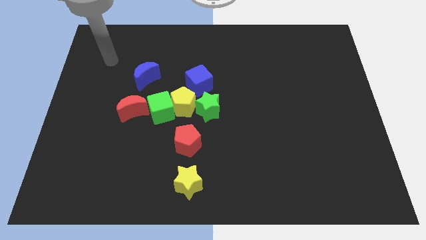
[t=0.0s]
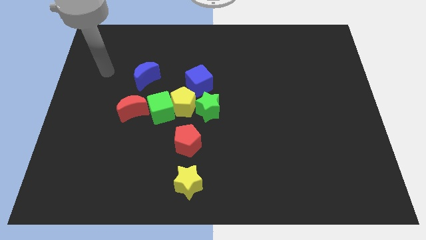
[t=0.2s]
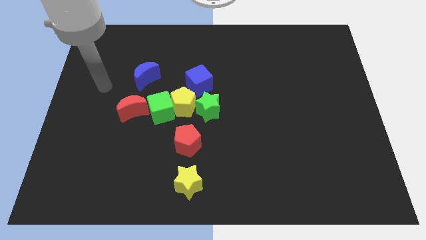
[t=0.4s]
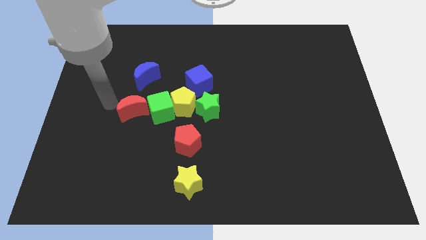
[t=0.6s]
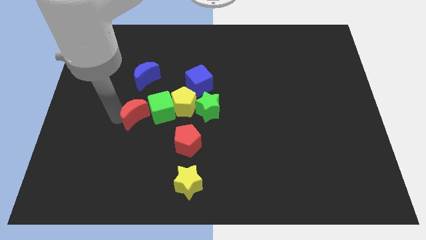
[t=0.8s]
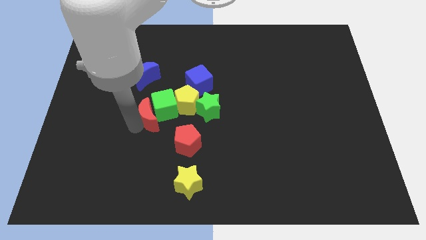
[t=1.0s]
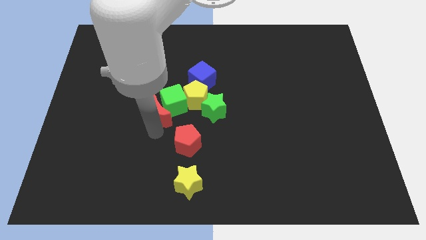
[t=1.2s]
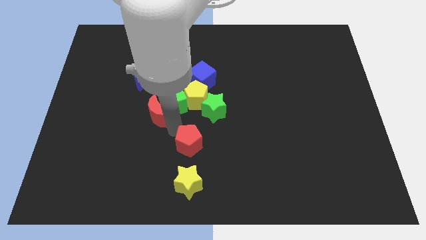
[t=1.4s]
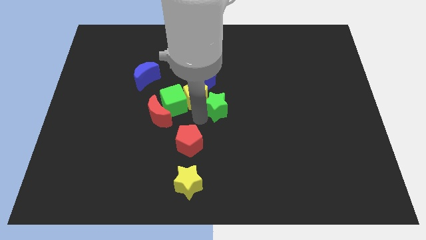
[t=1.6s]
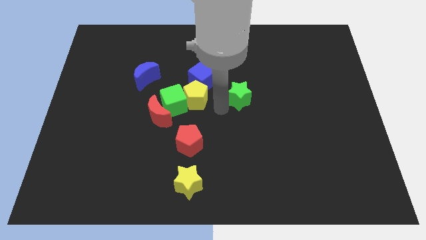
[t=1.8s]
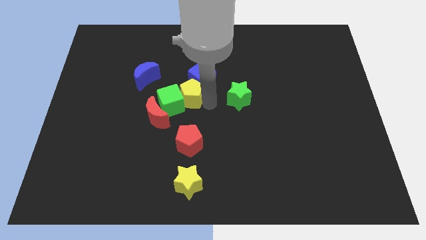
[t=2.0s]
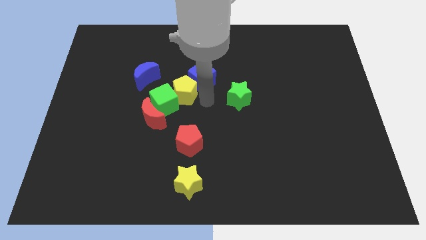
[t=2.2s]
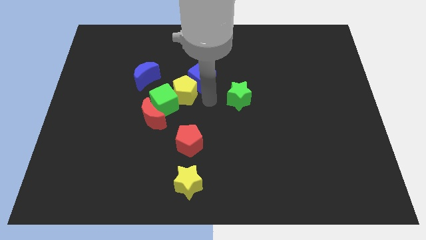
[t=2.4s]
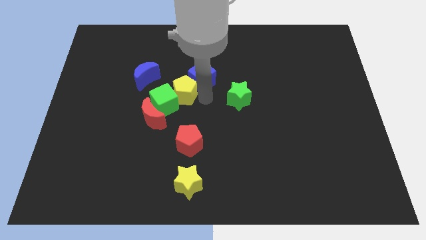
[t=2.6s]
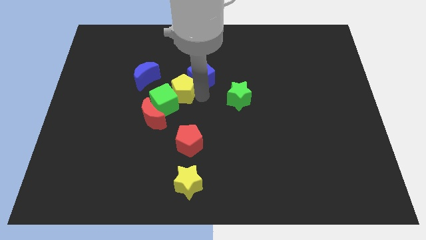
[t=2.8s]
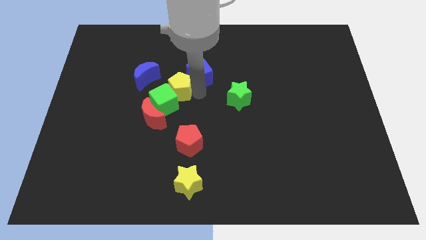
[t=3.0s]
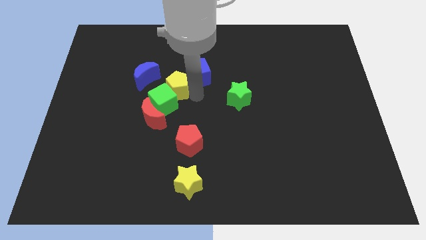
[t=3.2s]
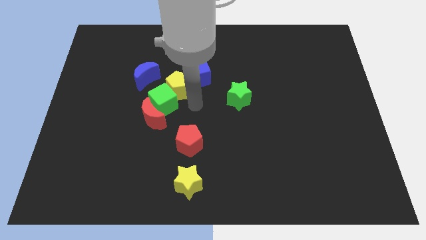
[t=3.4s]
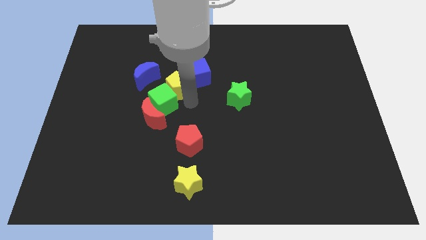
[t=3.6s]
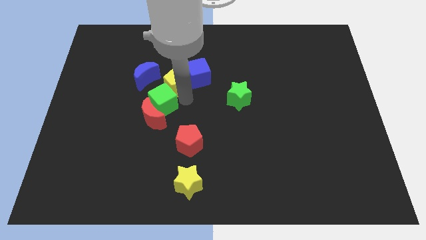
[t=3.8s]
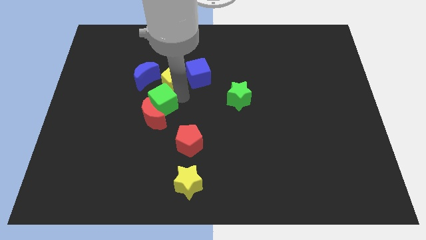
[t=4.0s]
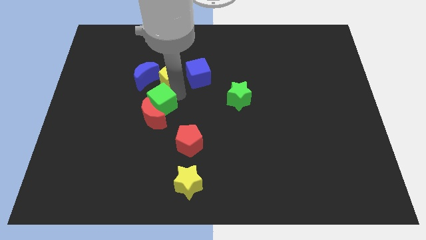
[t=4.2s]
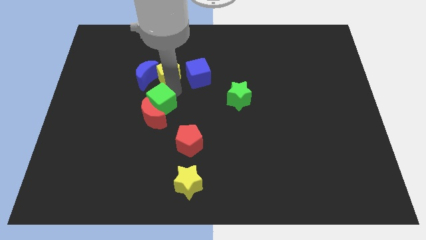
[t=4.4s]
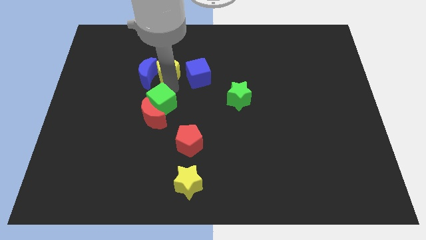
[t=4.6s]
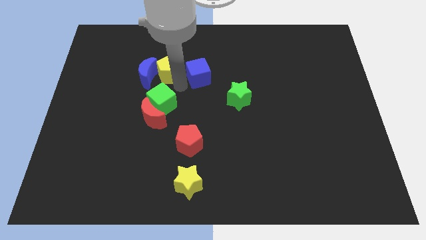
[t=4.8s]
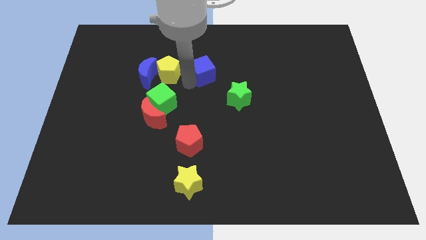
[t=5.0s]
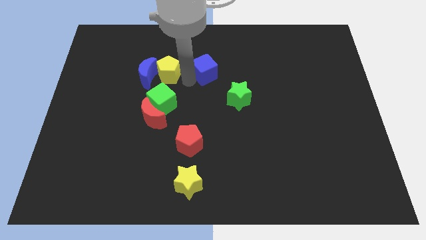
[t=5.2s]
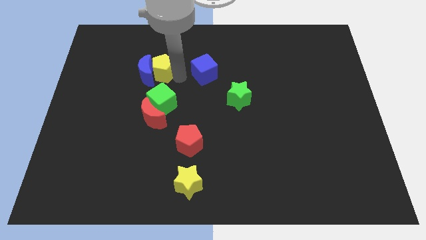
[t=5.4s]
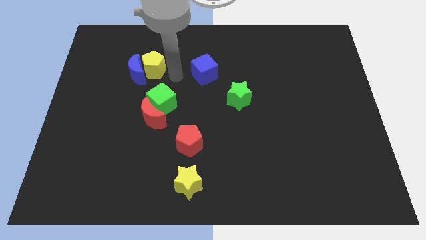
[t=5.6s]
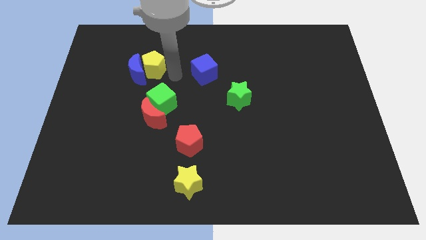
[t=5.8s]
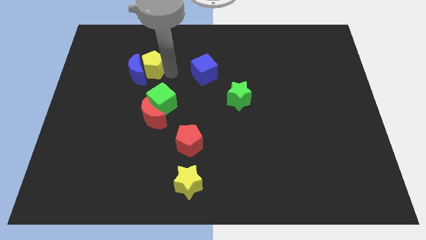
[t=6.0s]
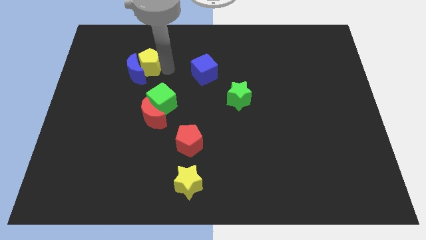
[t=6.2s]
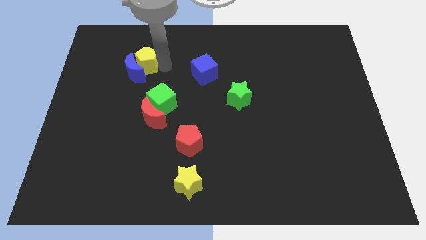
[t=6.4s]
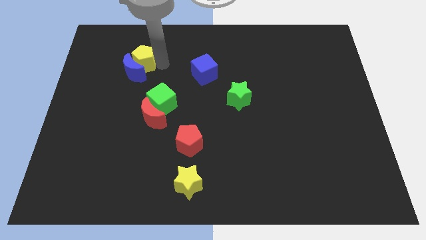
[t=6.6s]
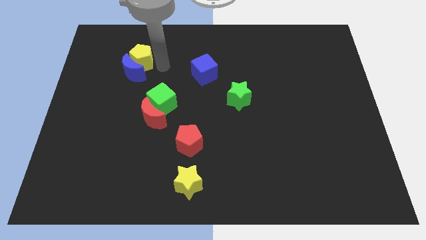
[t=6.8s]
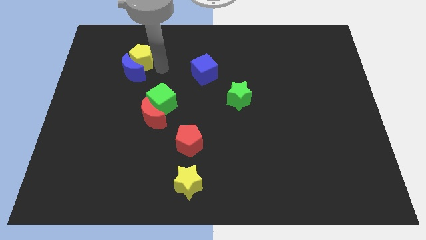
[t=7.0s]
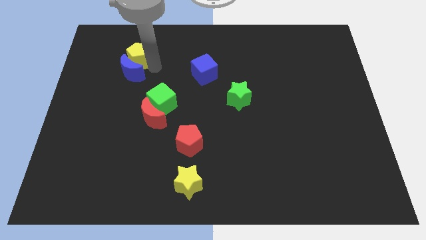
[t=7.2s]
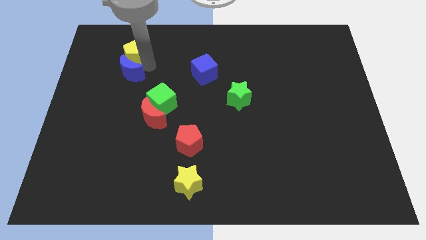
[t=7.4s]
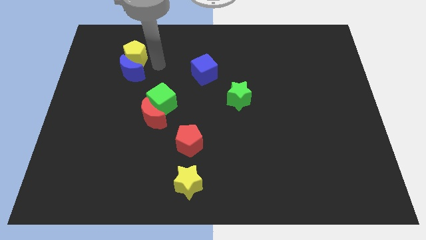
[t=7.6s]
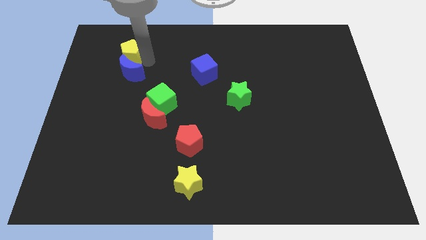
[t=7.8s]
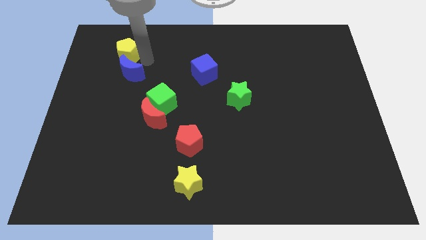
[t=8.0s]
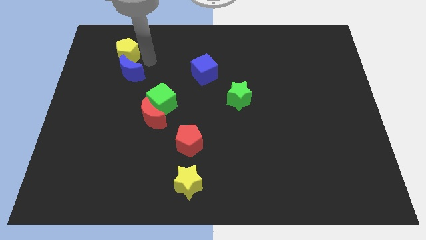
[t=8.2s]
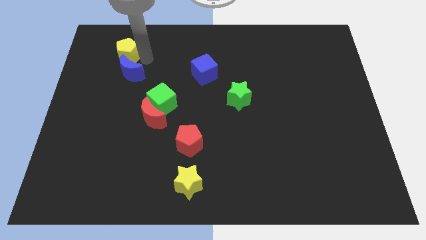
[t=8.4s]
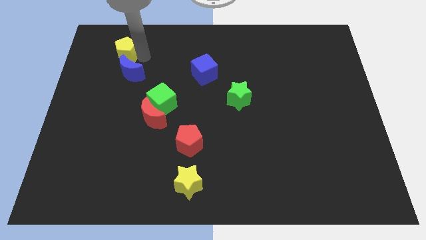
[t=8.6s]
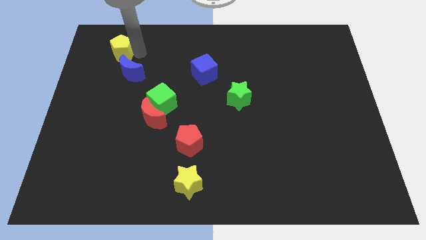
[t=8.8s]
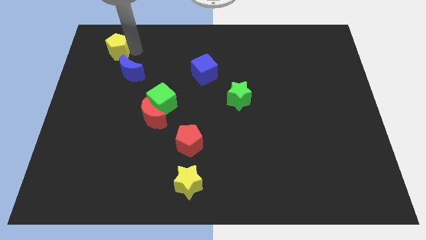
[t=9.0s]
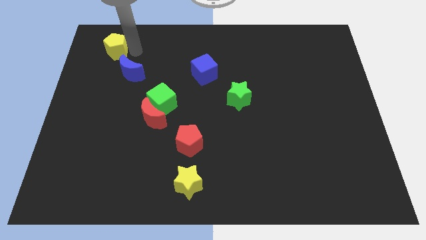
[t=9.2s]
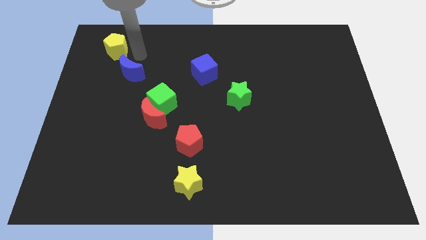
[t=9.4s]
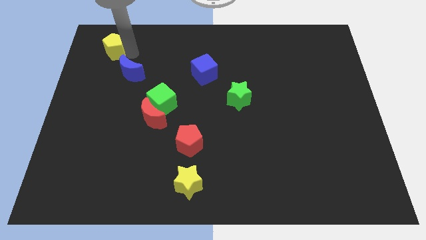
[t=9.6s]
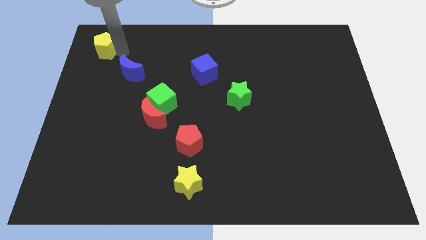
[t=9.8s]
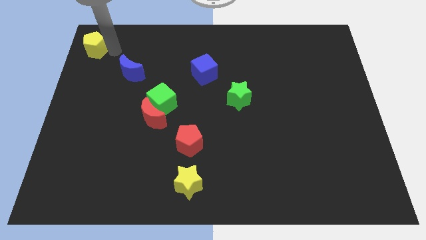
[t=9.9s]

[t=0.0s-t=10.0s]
move the yellow pentagon to the top left of the board
